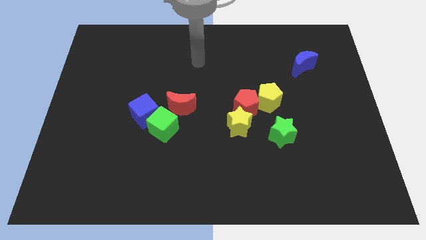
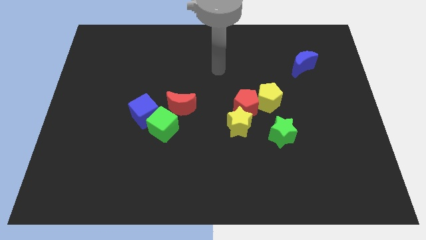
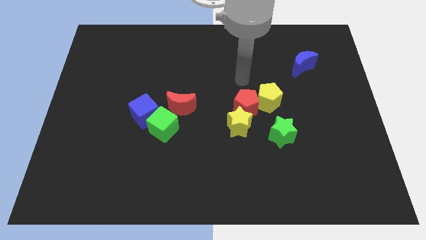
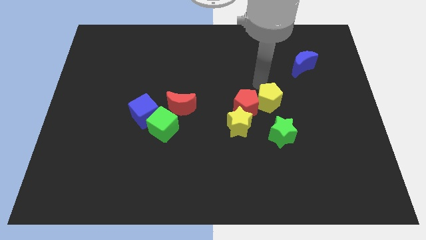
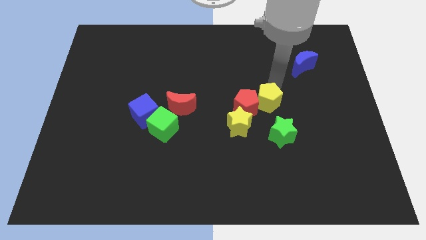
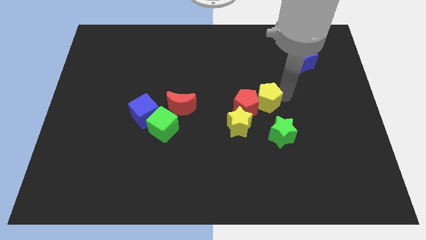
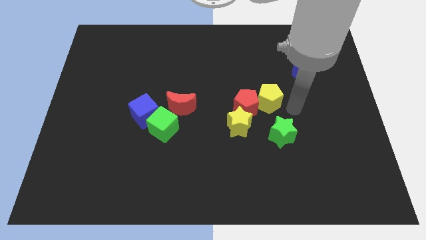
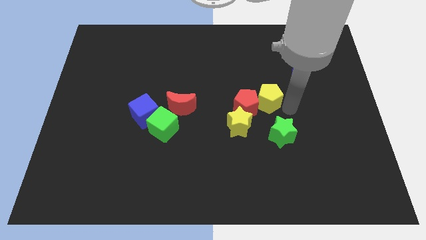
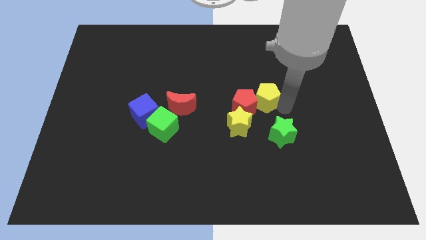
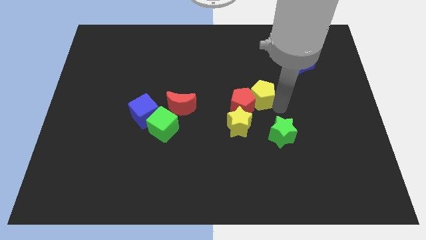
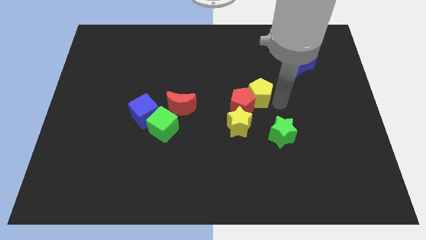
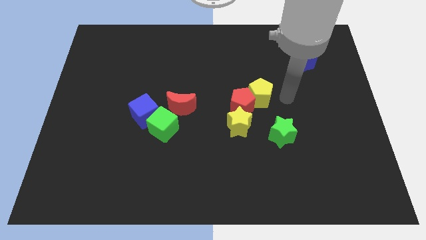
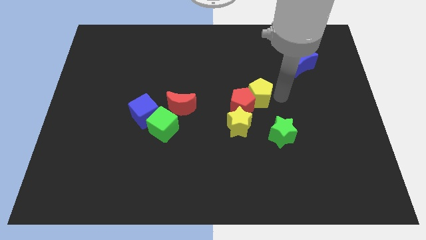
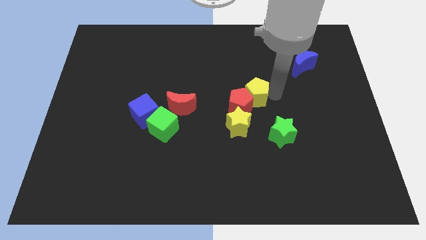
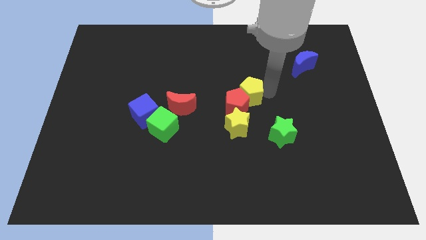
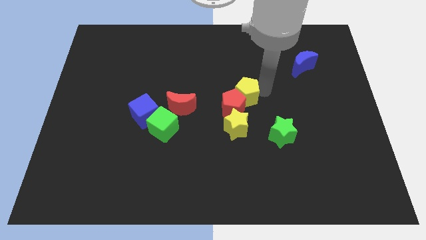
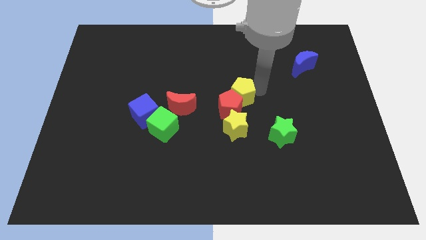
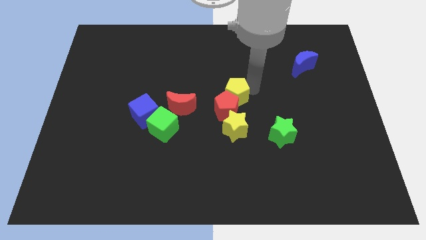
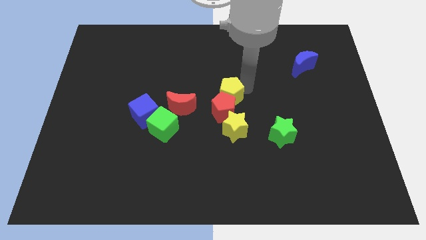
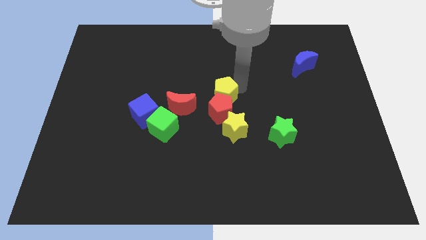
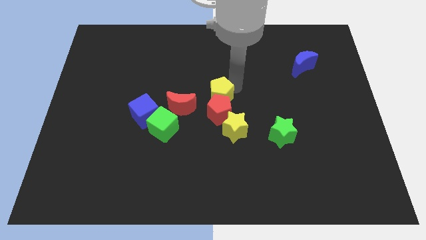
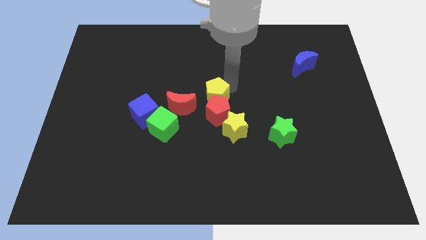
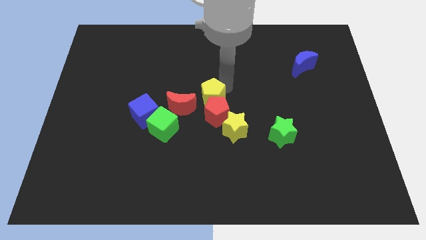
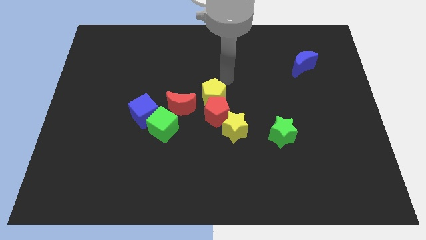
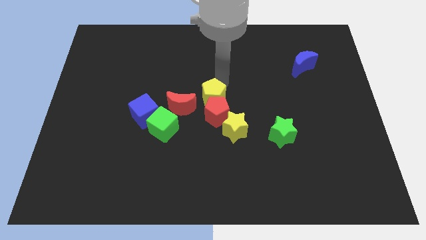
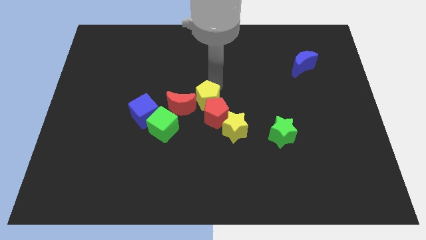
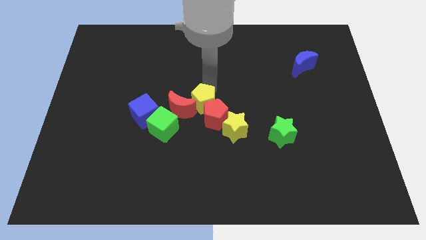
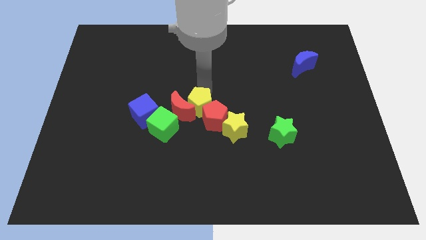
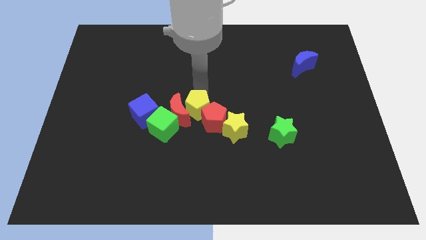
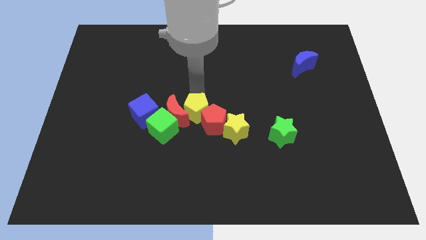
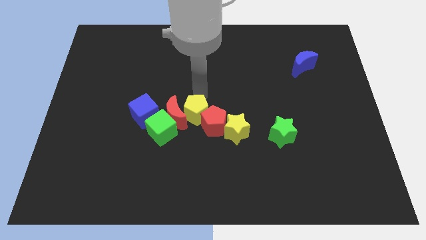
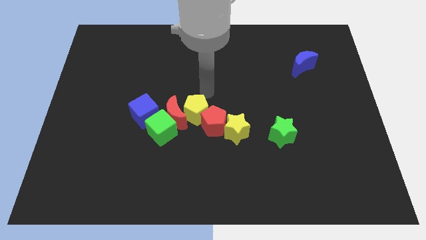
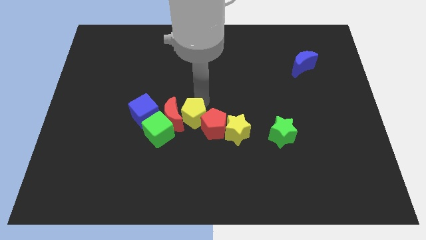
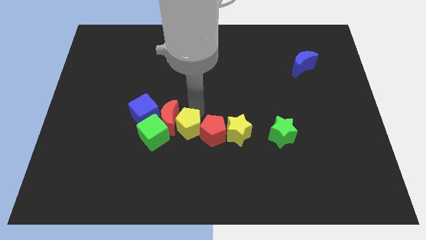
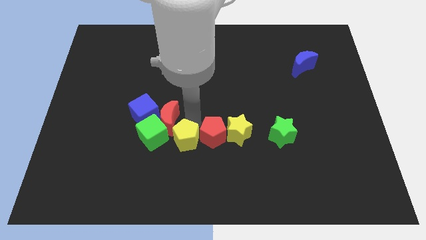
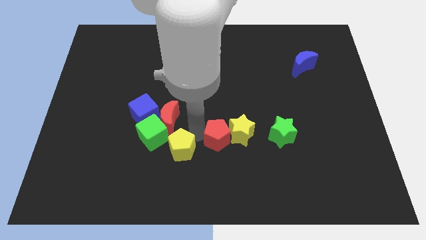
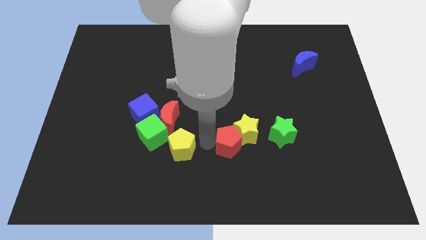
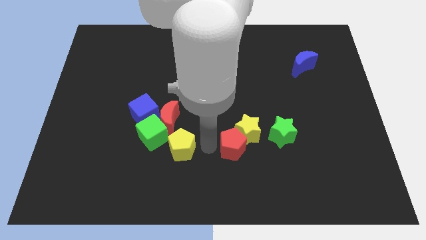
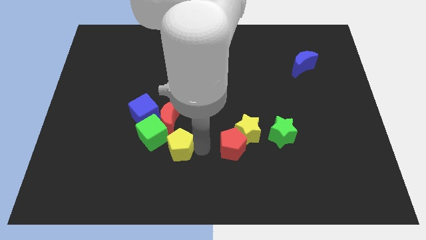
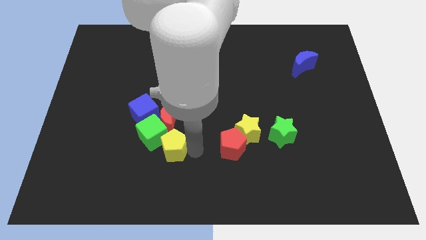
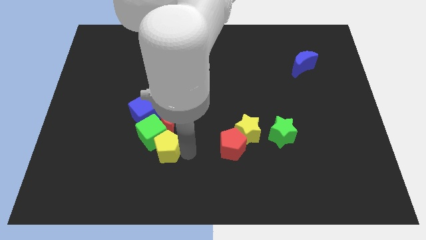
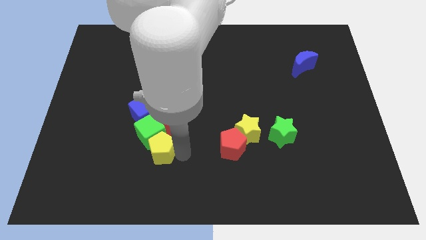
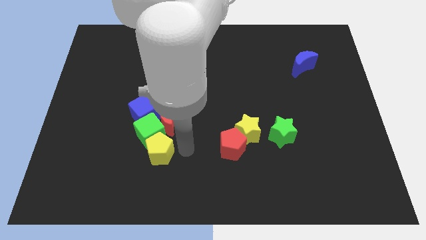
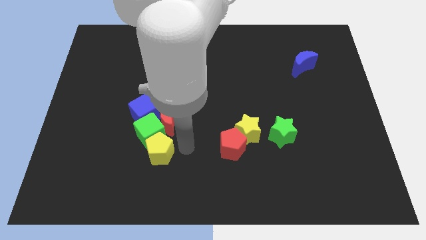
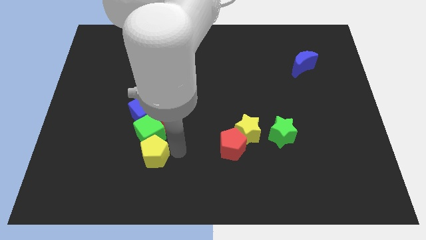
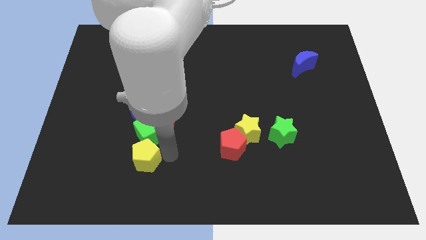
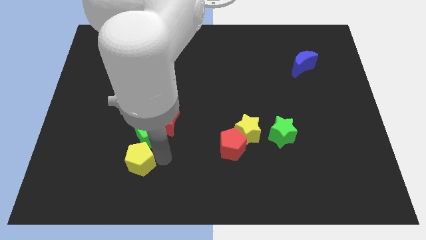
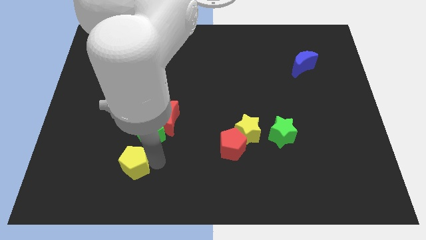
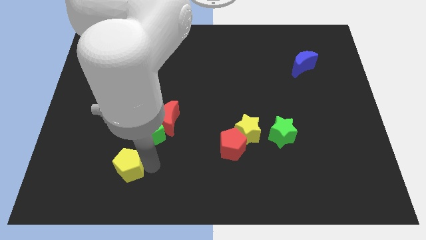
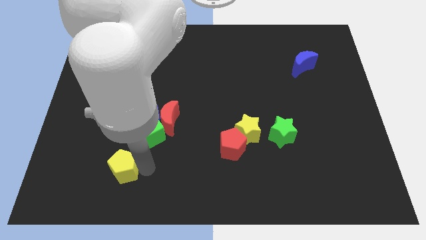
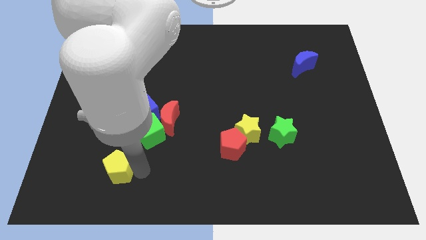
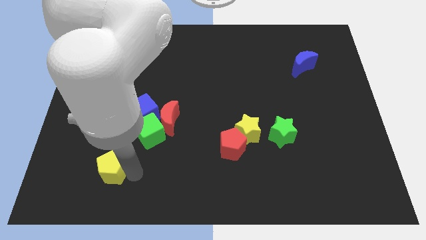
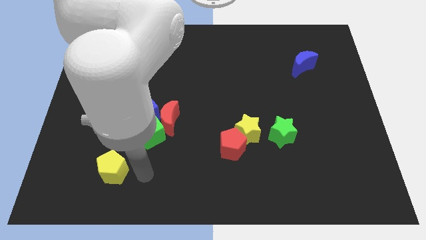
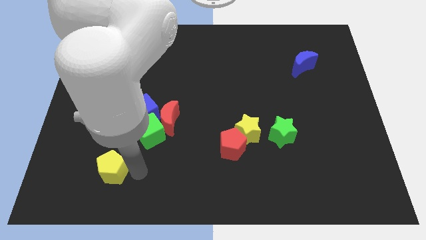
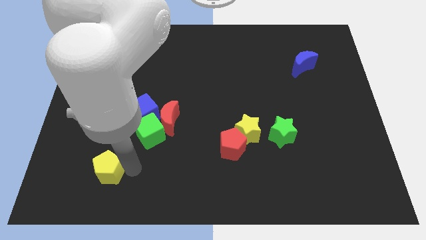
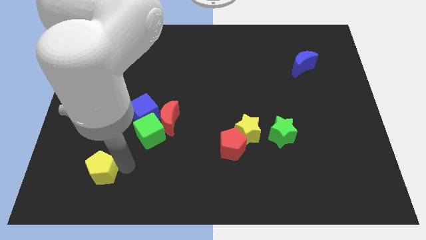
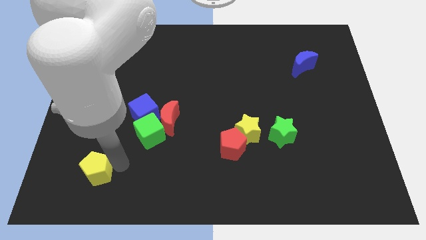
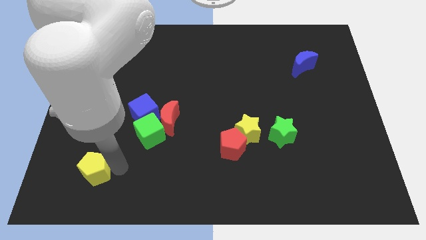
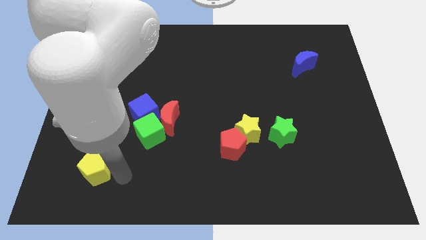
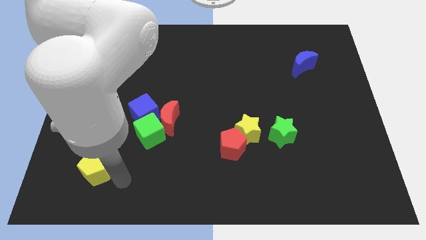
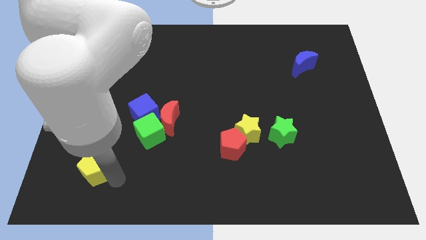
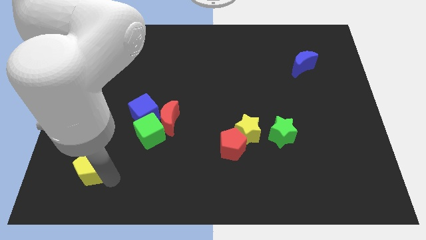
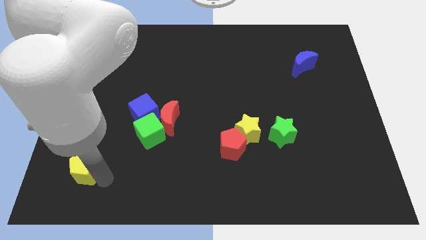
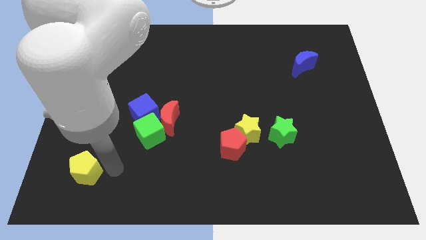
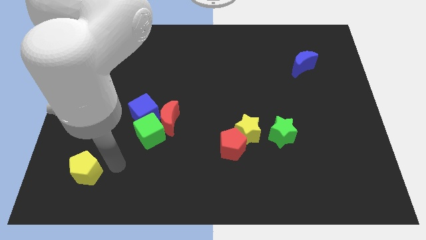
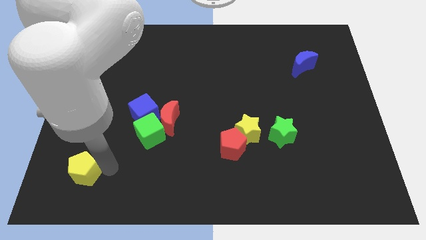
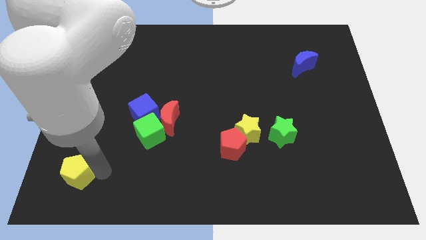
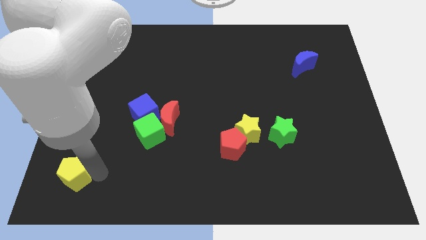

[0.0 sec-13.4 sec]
push the yellow pentagon to the lower left corner
